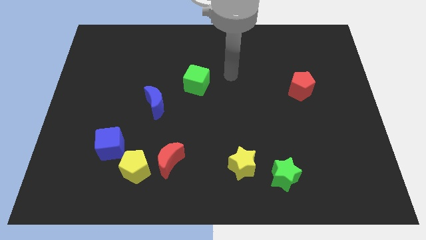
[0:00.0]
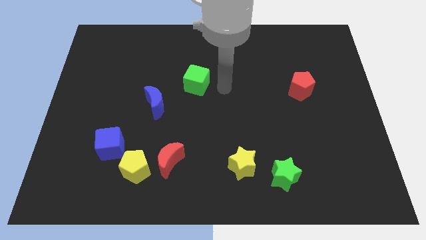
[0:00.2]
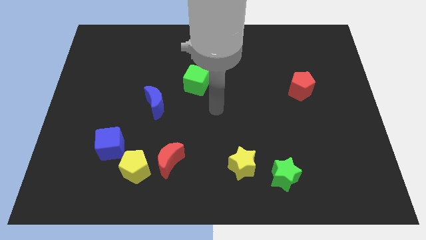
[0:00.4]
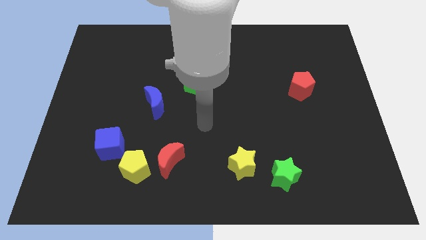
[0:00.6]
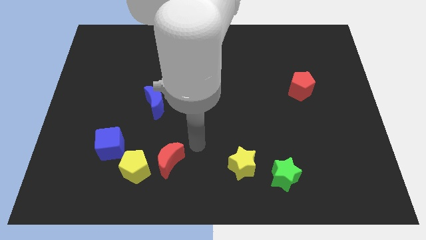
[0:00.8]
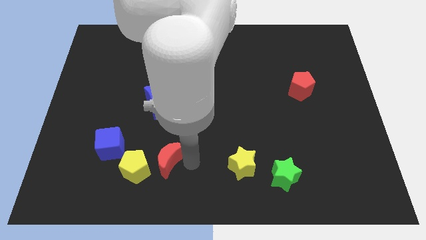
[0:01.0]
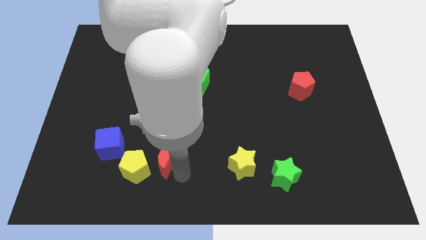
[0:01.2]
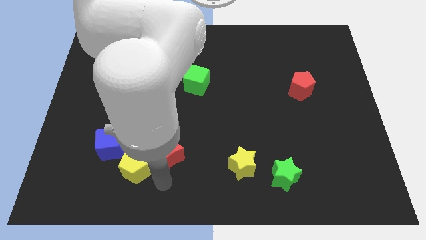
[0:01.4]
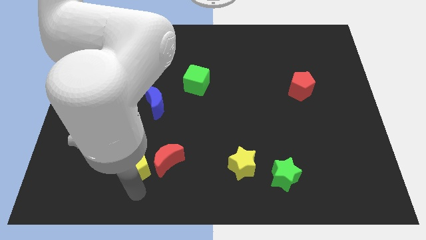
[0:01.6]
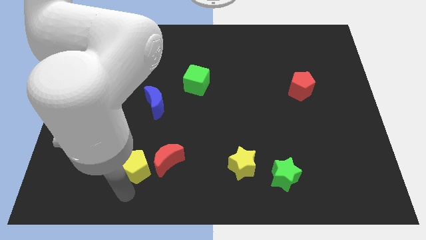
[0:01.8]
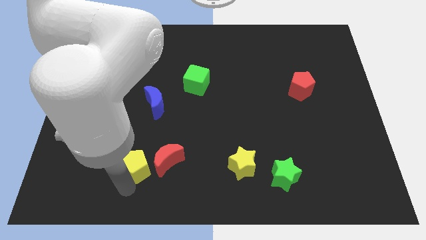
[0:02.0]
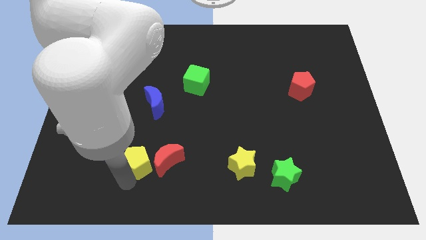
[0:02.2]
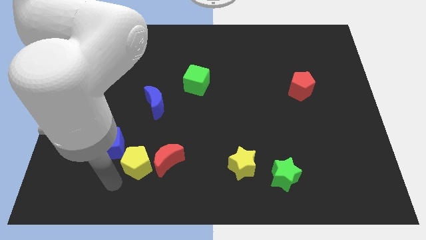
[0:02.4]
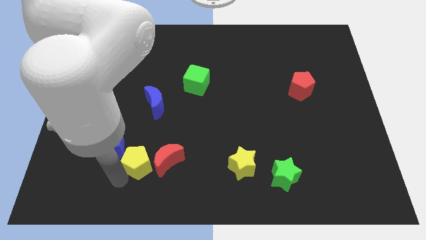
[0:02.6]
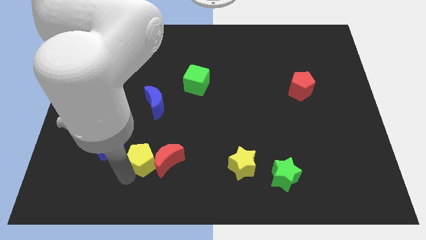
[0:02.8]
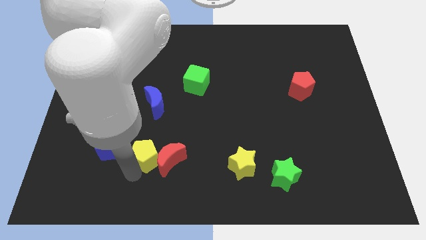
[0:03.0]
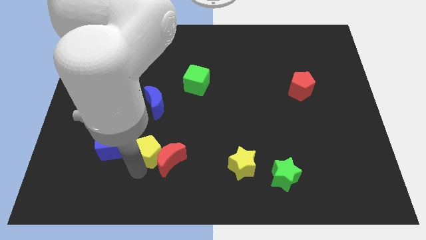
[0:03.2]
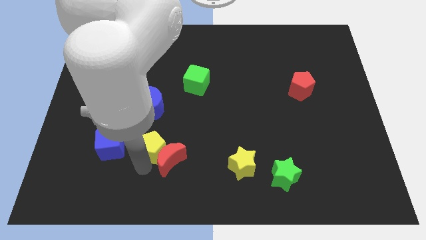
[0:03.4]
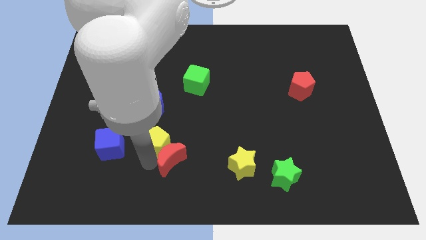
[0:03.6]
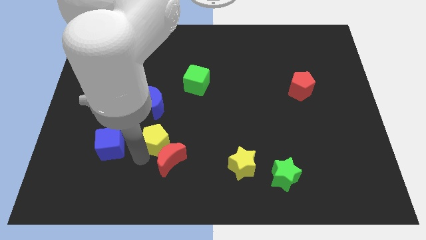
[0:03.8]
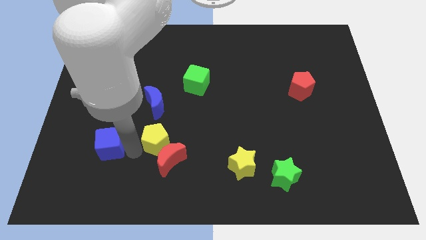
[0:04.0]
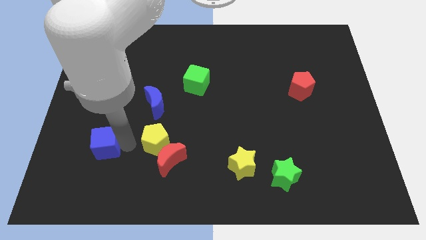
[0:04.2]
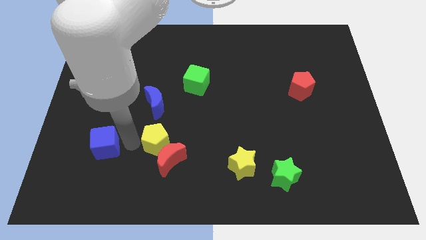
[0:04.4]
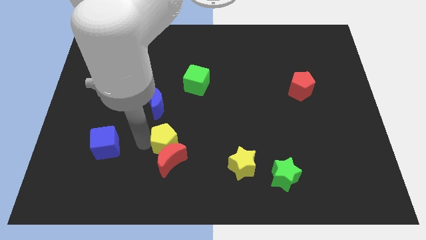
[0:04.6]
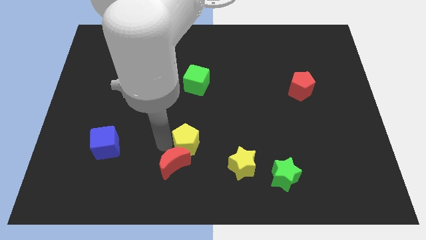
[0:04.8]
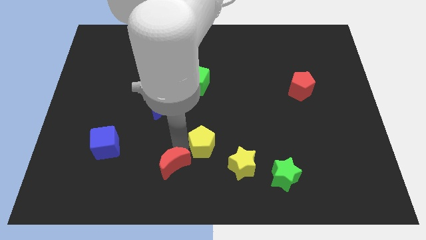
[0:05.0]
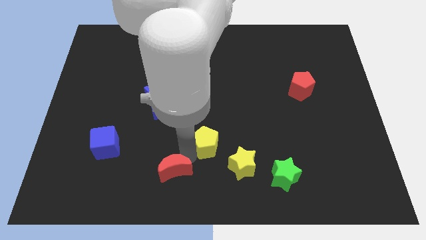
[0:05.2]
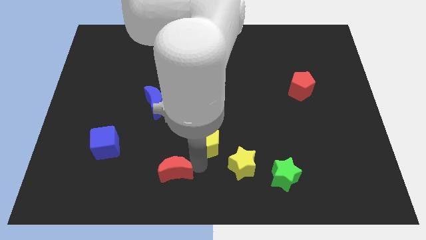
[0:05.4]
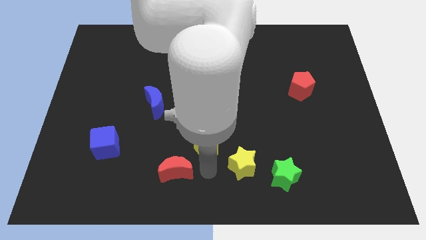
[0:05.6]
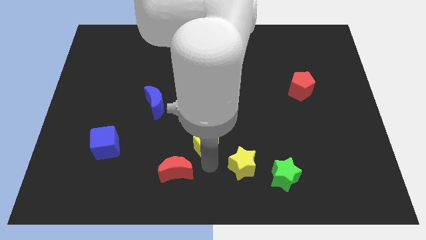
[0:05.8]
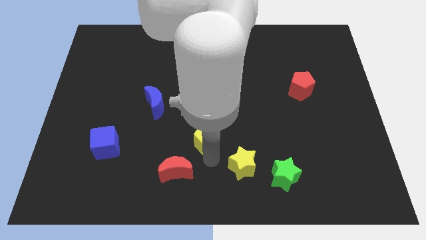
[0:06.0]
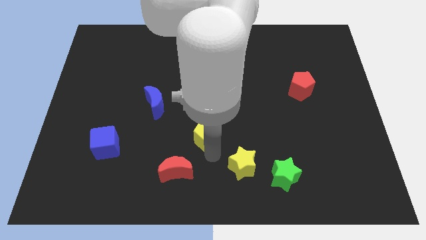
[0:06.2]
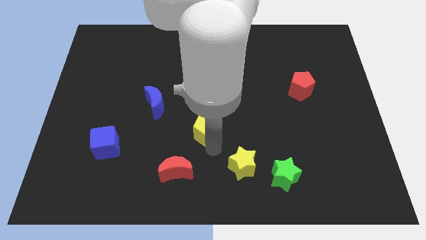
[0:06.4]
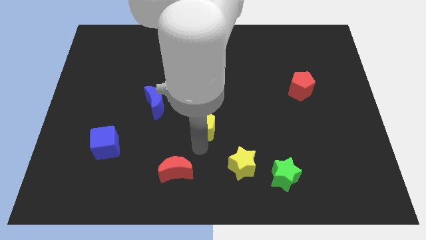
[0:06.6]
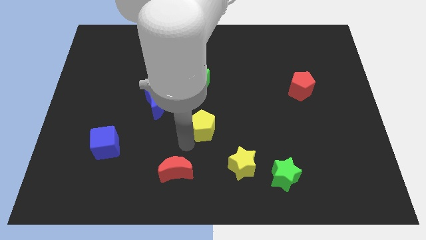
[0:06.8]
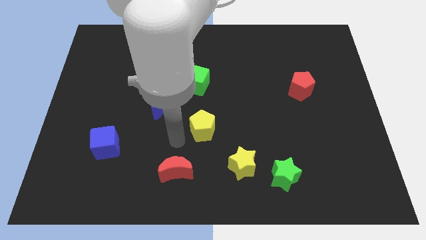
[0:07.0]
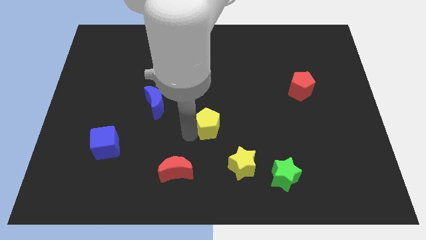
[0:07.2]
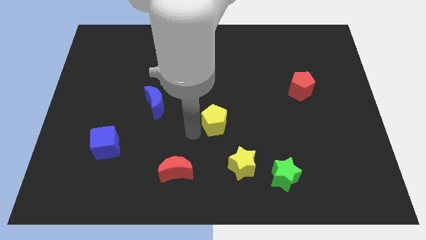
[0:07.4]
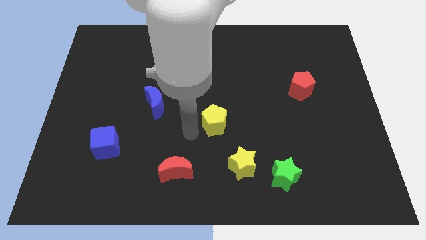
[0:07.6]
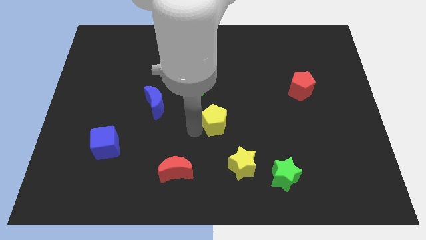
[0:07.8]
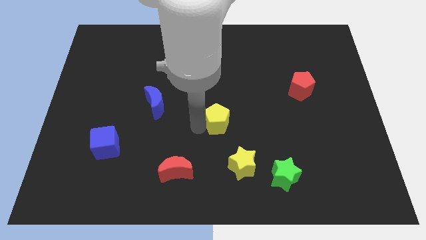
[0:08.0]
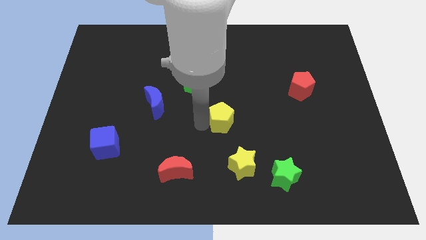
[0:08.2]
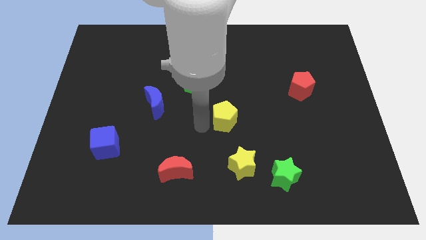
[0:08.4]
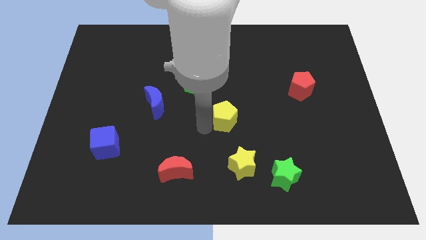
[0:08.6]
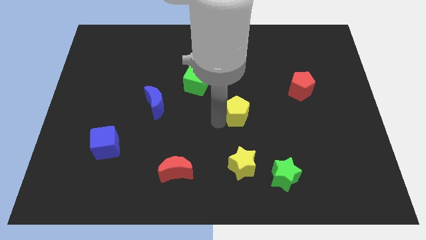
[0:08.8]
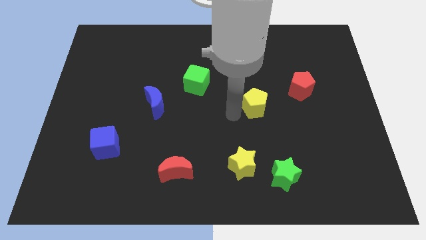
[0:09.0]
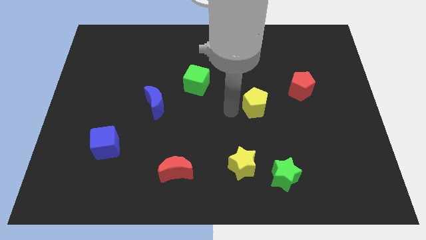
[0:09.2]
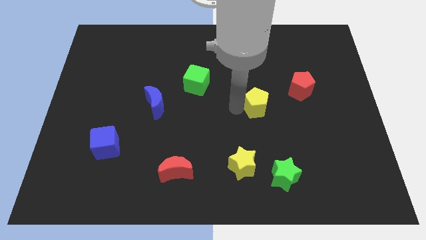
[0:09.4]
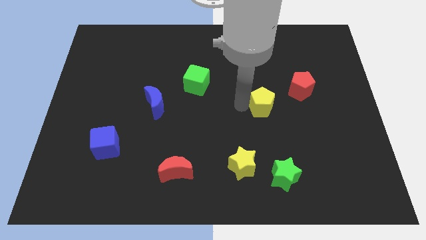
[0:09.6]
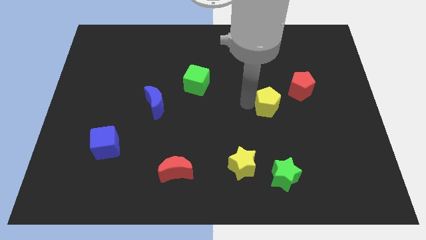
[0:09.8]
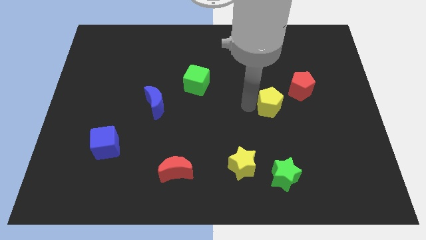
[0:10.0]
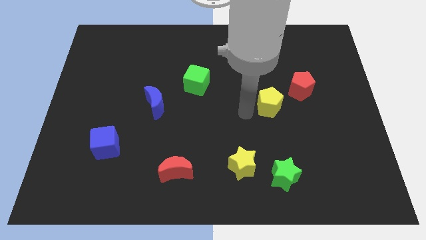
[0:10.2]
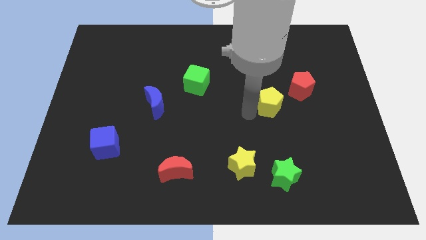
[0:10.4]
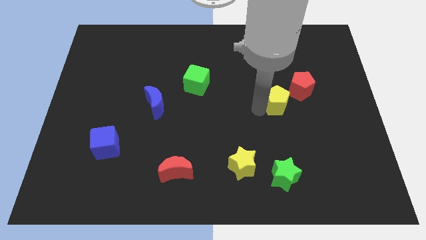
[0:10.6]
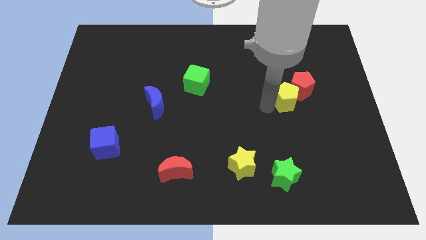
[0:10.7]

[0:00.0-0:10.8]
slide the yellow pentagon next to the red pentagon

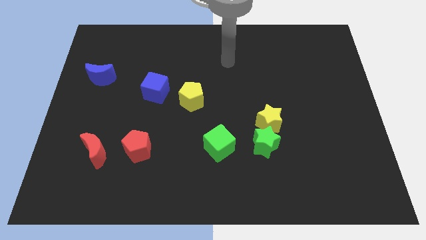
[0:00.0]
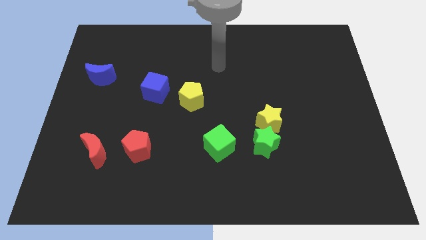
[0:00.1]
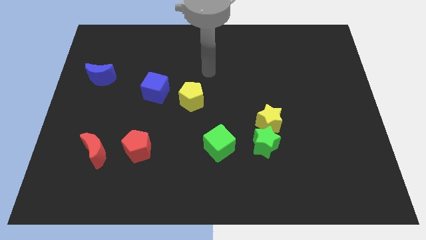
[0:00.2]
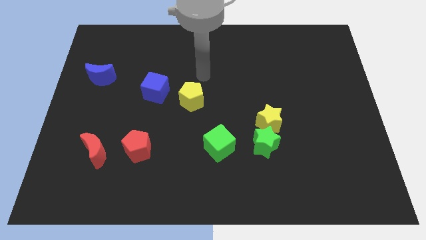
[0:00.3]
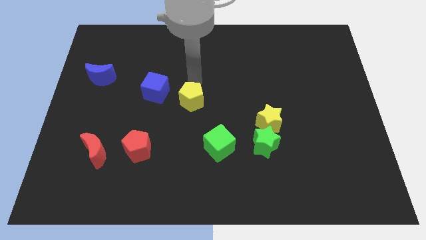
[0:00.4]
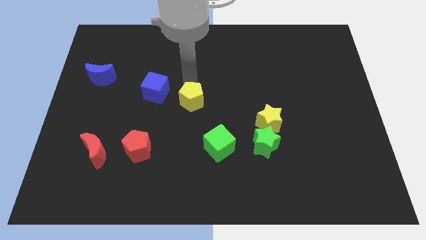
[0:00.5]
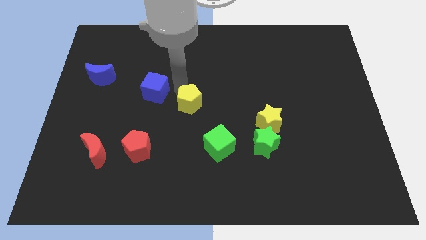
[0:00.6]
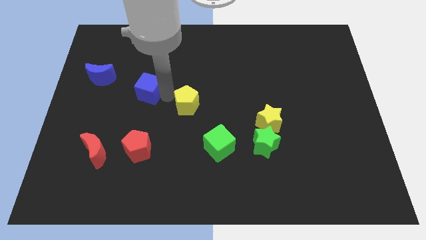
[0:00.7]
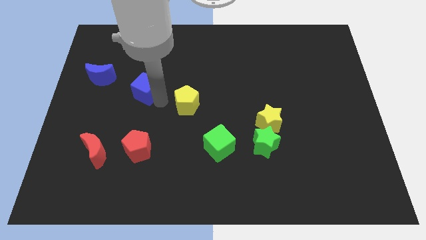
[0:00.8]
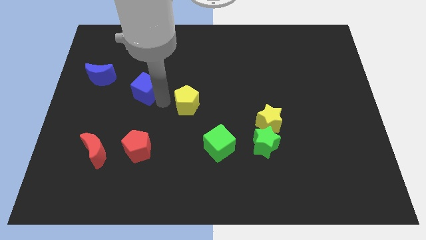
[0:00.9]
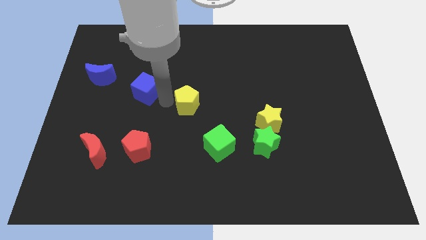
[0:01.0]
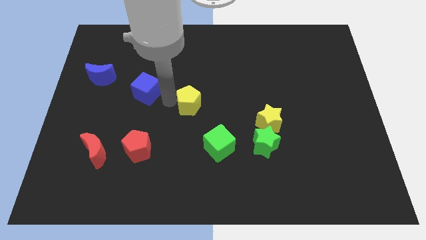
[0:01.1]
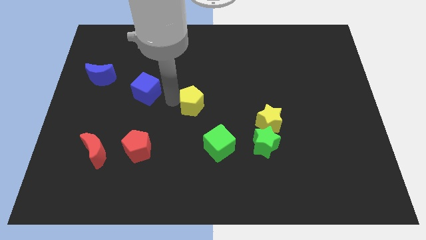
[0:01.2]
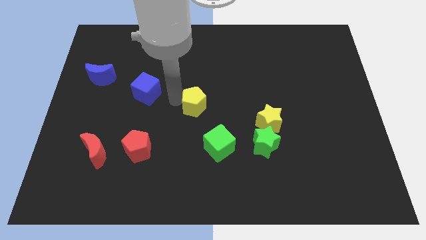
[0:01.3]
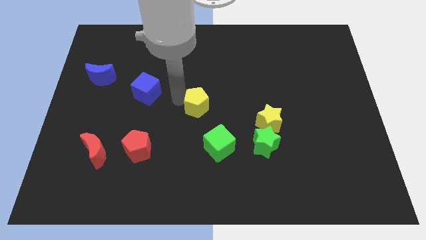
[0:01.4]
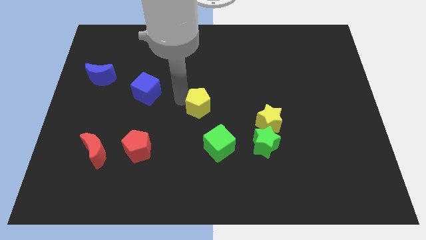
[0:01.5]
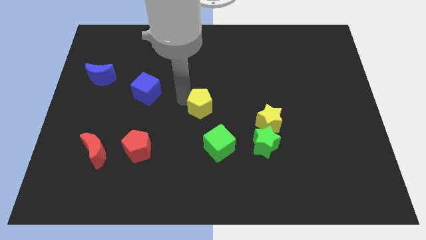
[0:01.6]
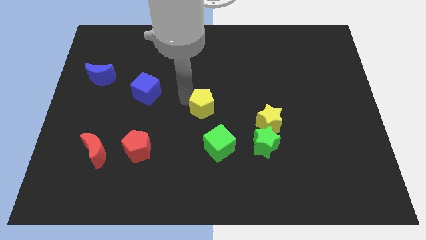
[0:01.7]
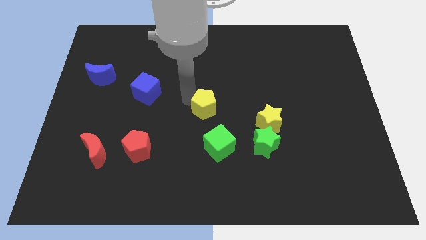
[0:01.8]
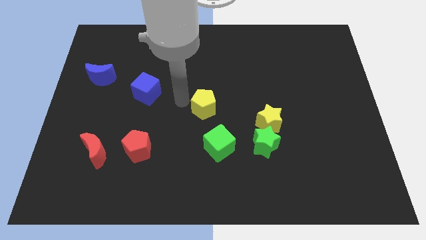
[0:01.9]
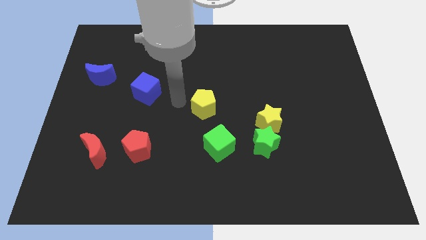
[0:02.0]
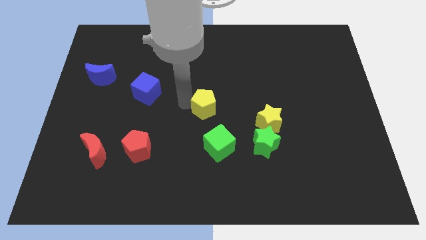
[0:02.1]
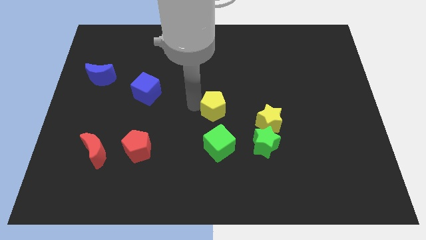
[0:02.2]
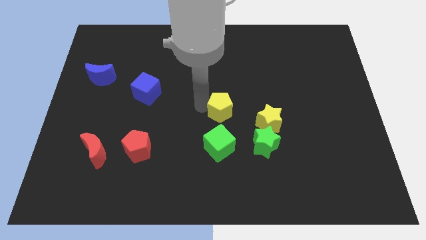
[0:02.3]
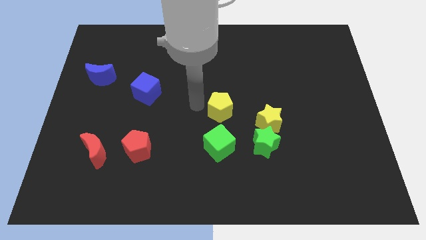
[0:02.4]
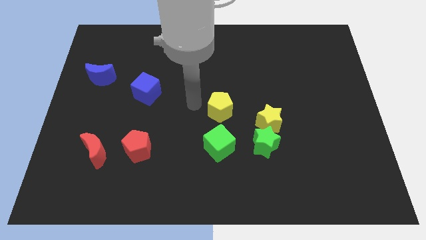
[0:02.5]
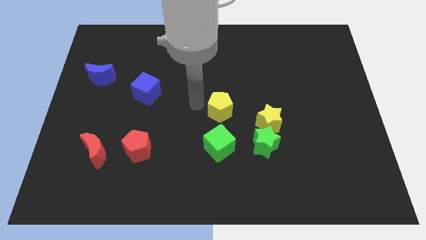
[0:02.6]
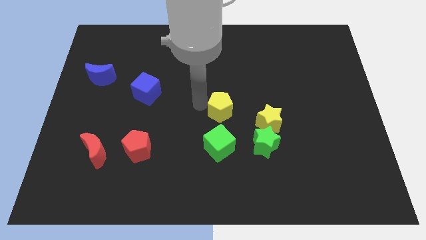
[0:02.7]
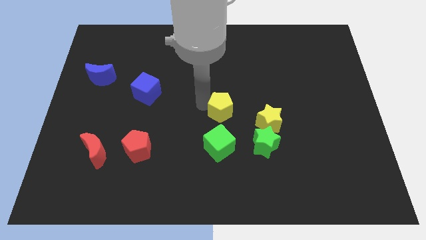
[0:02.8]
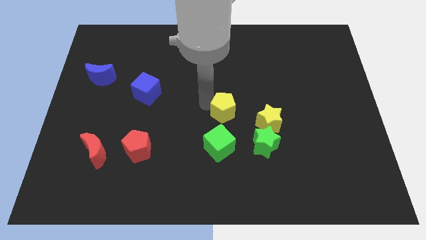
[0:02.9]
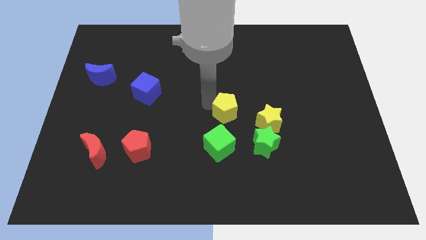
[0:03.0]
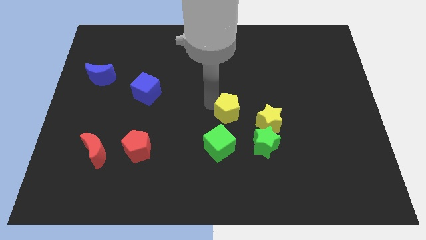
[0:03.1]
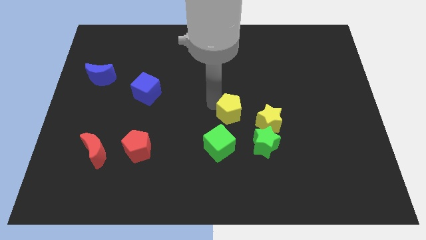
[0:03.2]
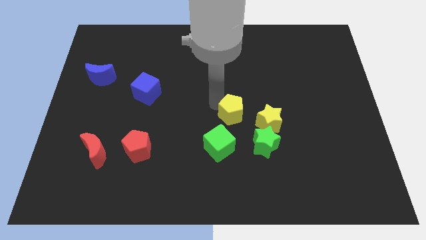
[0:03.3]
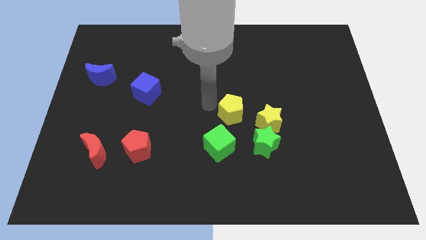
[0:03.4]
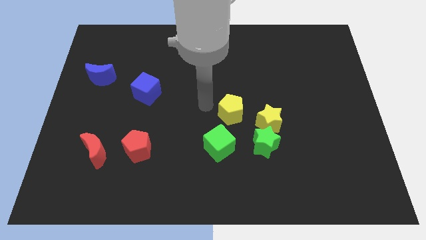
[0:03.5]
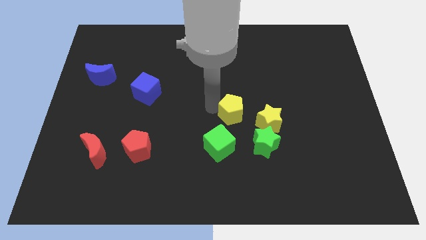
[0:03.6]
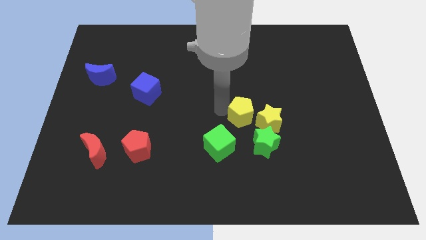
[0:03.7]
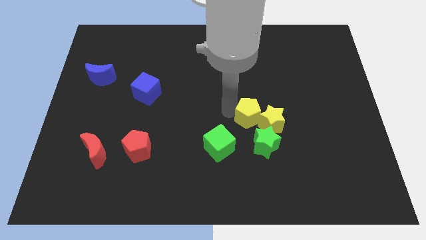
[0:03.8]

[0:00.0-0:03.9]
slide the yellow pentagon next to the yellow star
